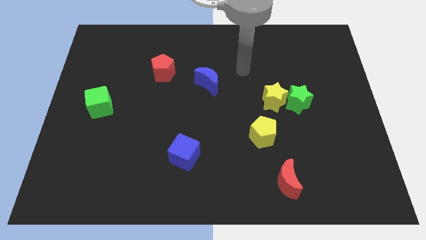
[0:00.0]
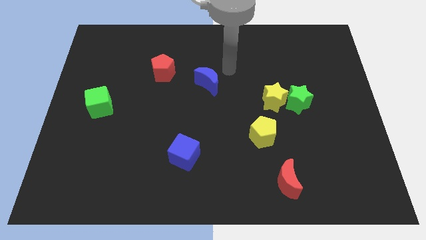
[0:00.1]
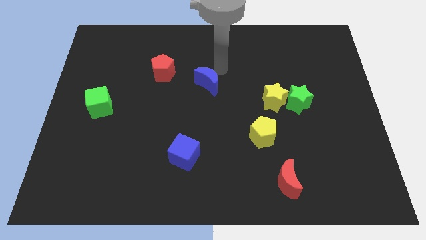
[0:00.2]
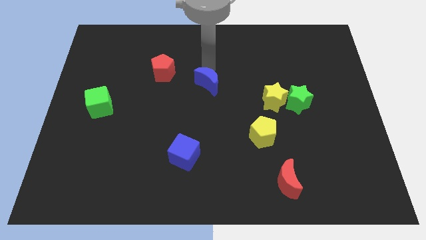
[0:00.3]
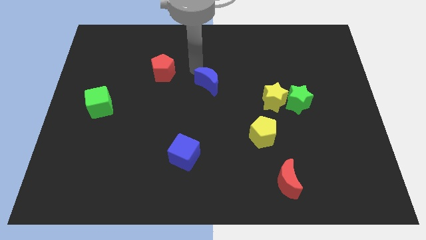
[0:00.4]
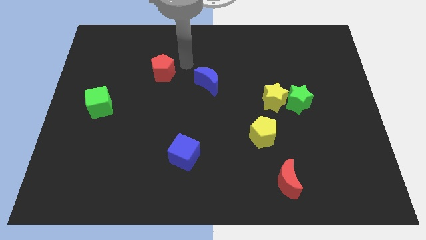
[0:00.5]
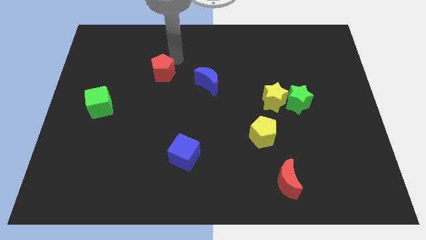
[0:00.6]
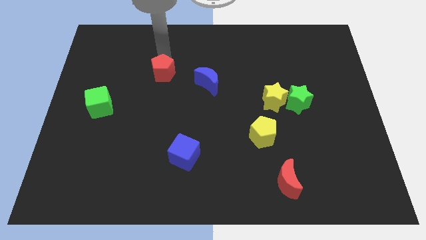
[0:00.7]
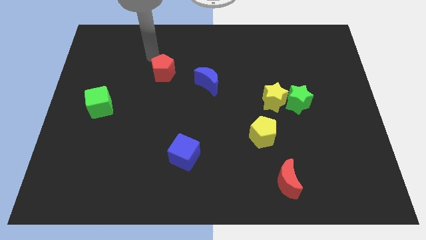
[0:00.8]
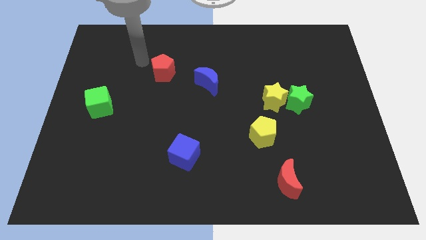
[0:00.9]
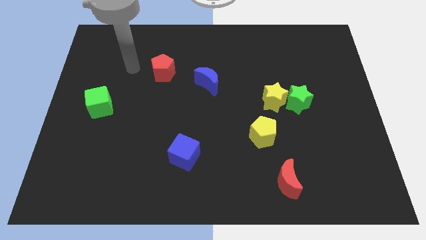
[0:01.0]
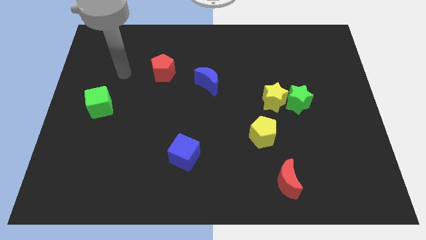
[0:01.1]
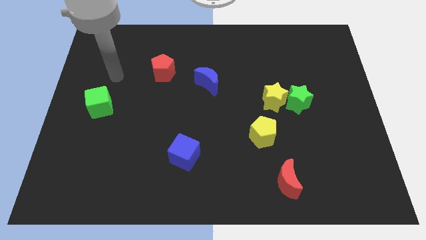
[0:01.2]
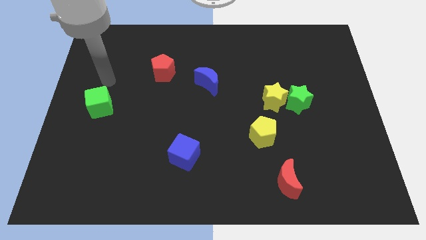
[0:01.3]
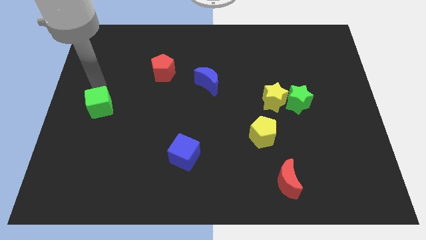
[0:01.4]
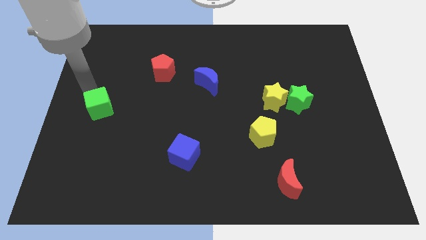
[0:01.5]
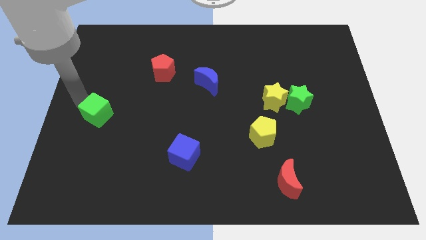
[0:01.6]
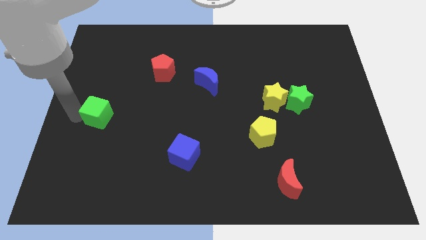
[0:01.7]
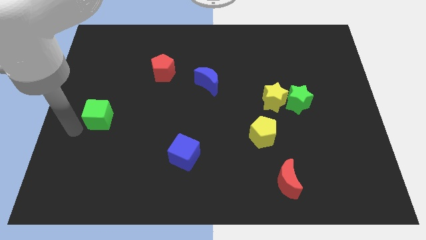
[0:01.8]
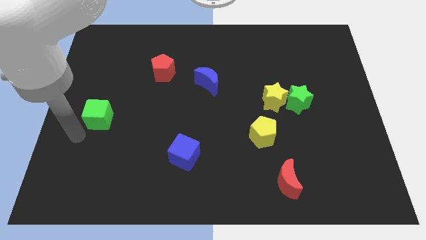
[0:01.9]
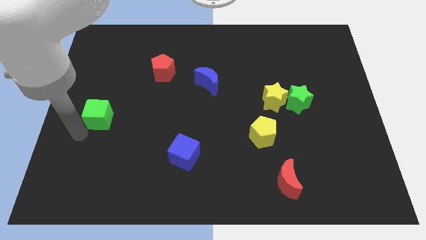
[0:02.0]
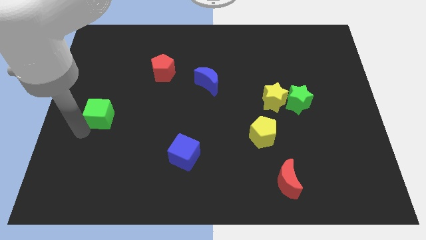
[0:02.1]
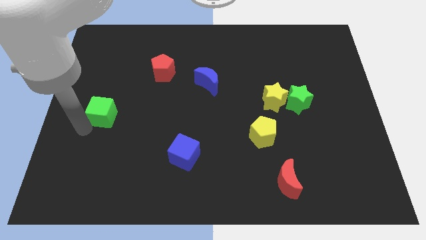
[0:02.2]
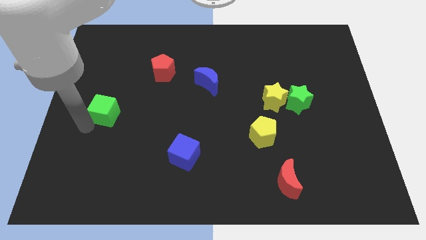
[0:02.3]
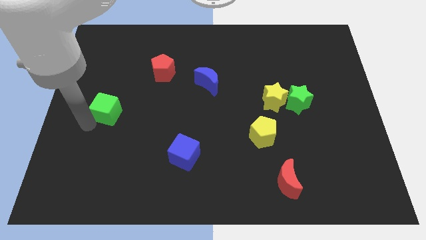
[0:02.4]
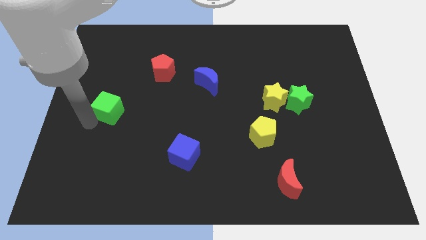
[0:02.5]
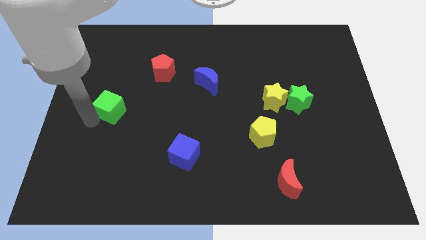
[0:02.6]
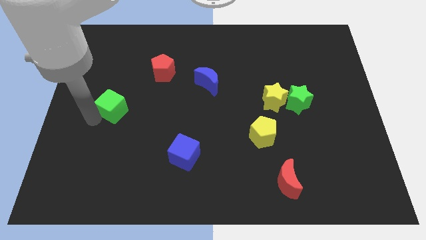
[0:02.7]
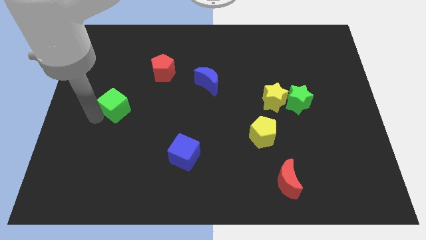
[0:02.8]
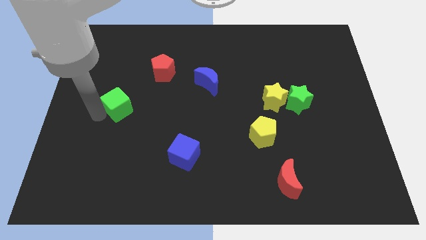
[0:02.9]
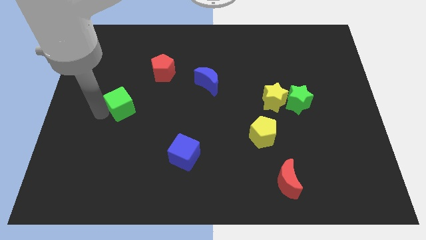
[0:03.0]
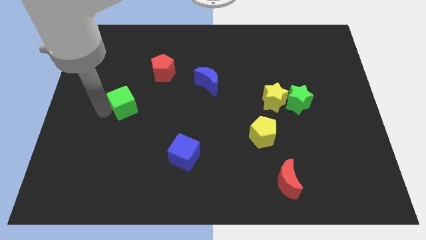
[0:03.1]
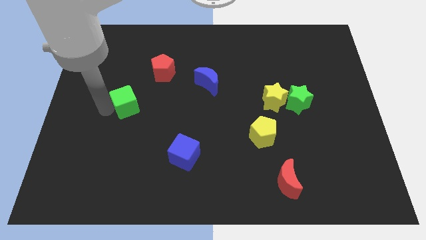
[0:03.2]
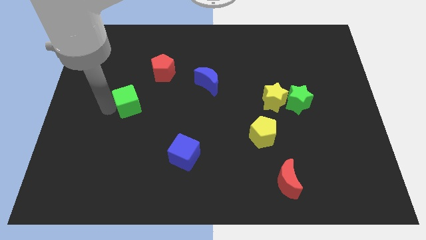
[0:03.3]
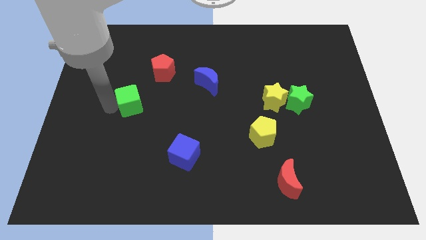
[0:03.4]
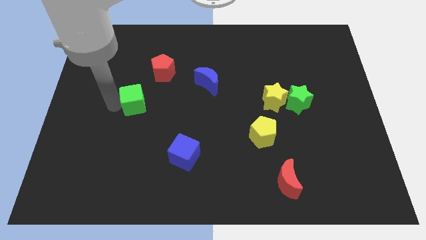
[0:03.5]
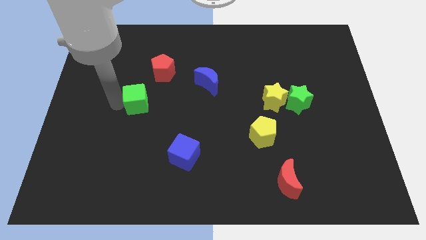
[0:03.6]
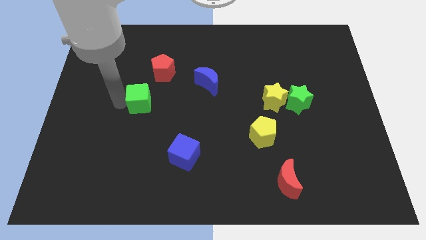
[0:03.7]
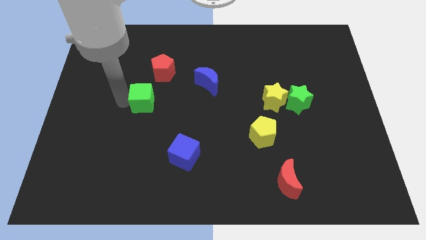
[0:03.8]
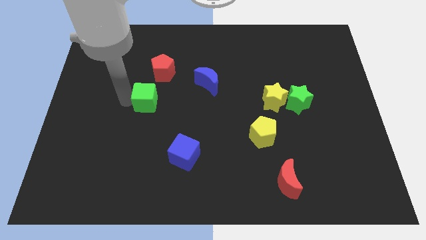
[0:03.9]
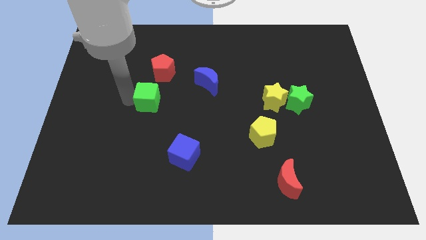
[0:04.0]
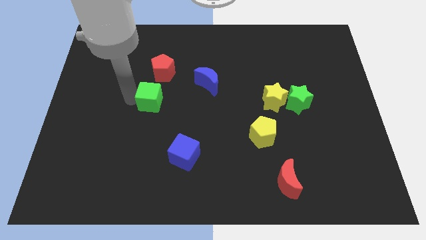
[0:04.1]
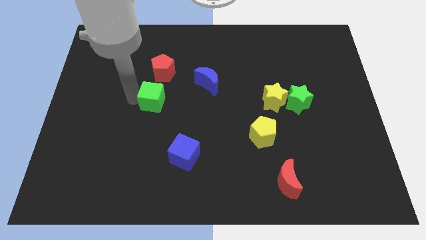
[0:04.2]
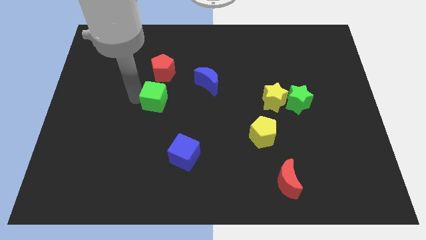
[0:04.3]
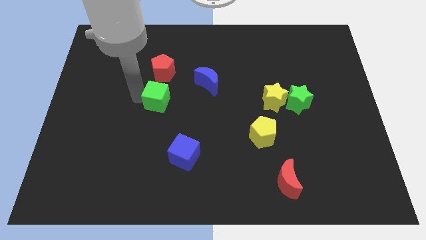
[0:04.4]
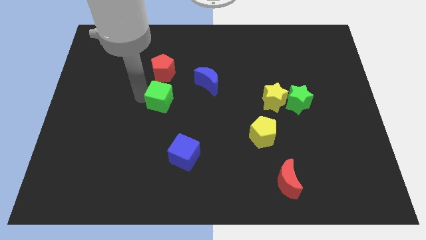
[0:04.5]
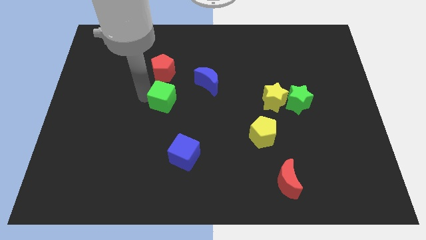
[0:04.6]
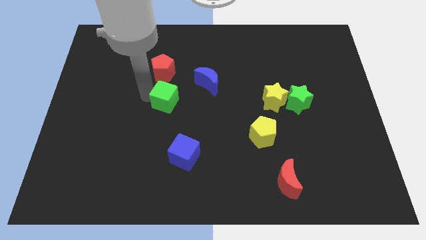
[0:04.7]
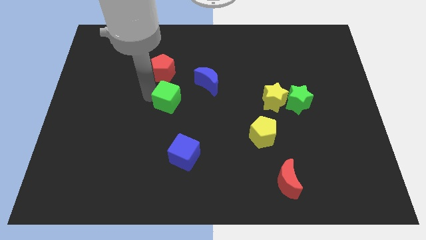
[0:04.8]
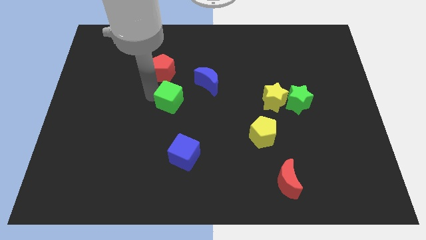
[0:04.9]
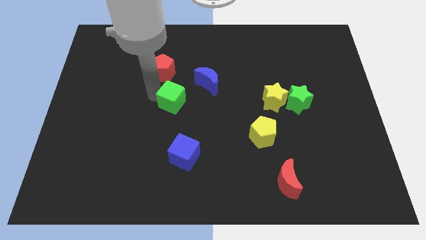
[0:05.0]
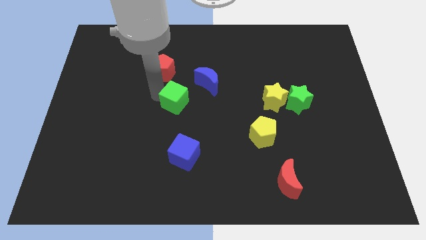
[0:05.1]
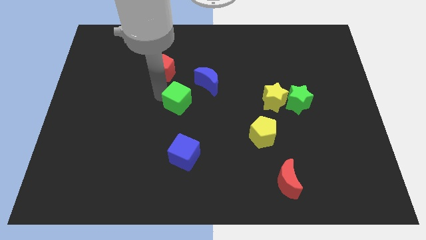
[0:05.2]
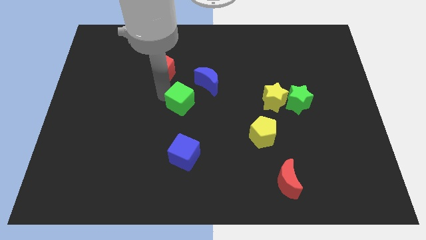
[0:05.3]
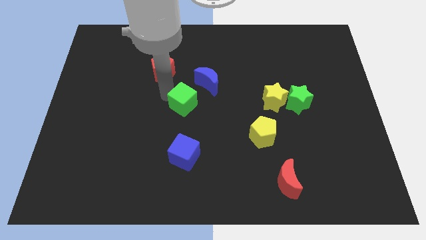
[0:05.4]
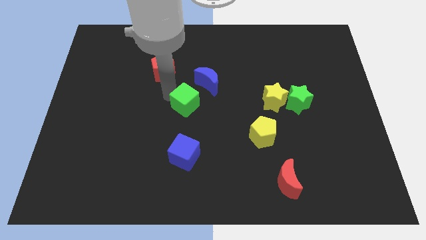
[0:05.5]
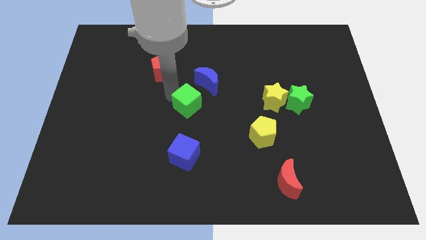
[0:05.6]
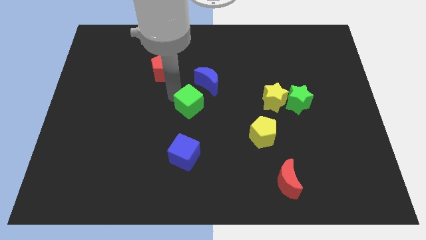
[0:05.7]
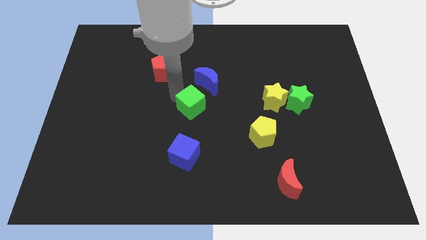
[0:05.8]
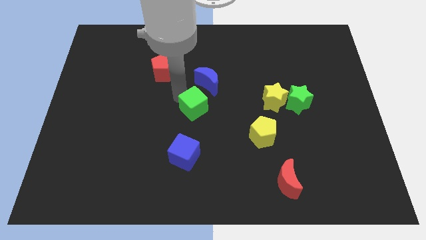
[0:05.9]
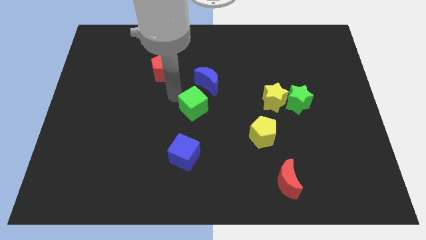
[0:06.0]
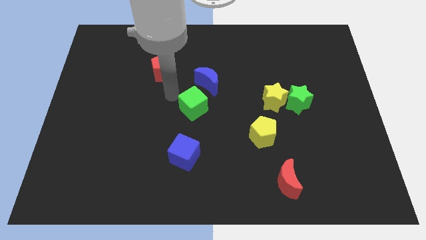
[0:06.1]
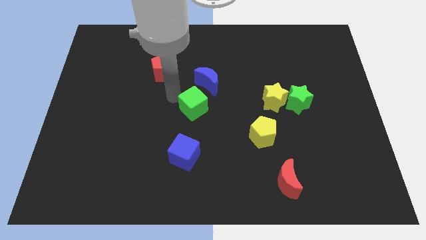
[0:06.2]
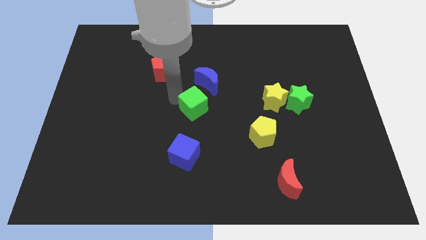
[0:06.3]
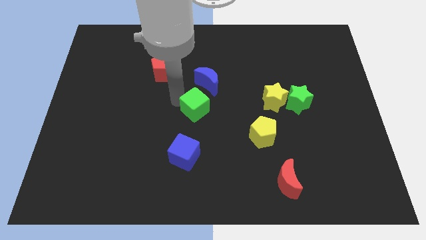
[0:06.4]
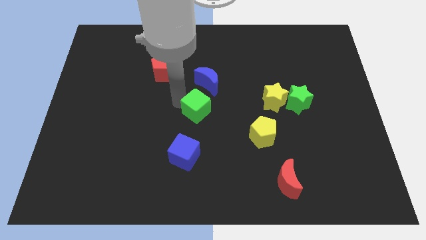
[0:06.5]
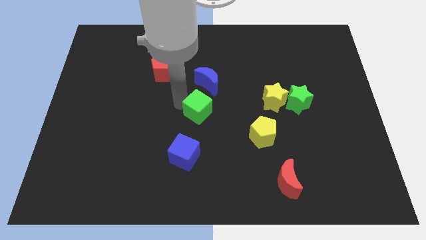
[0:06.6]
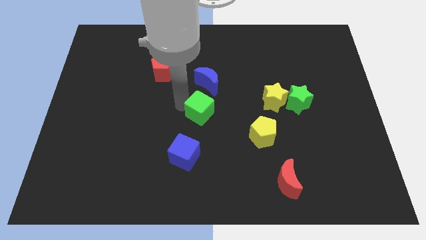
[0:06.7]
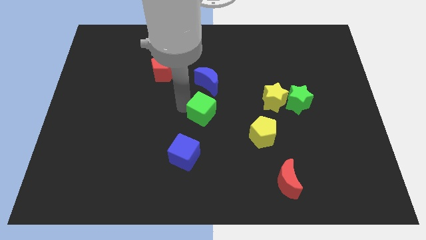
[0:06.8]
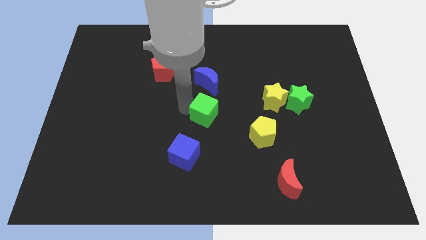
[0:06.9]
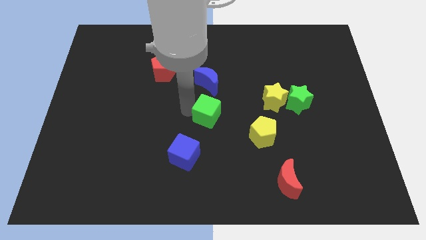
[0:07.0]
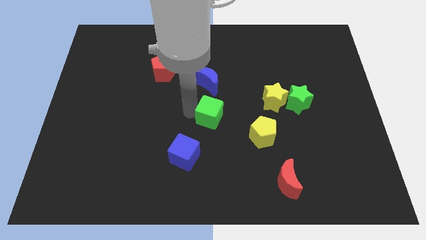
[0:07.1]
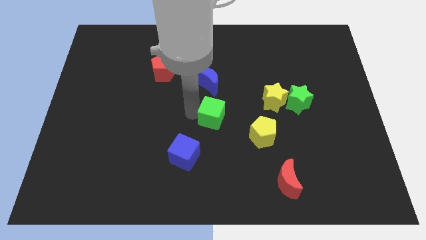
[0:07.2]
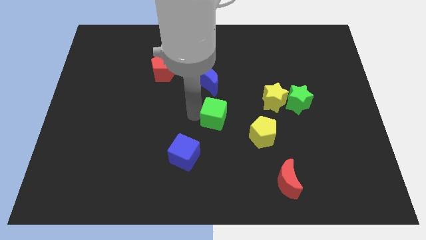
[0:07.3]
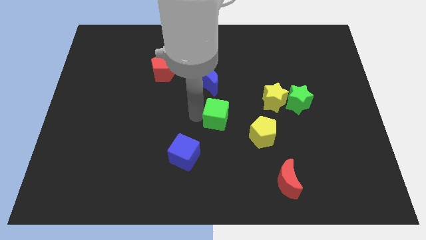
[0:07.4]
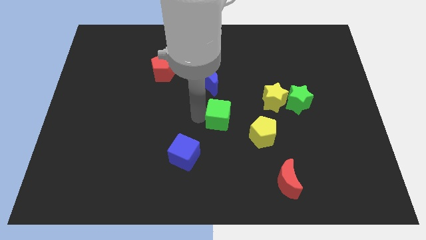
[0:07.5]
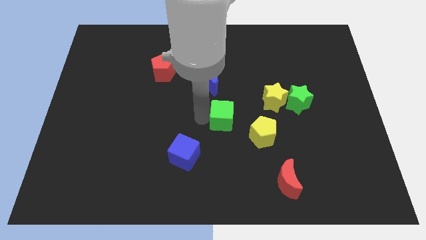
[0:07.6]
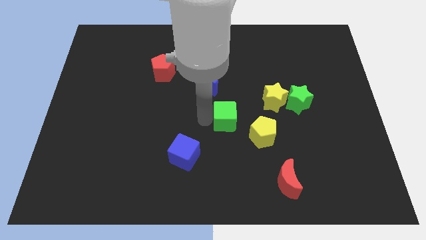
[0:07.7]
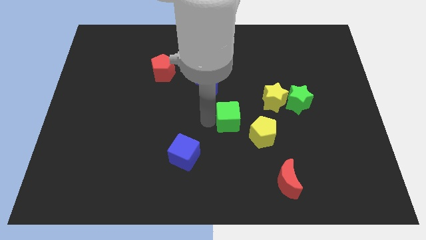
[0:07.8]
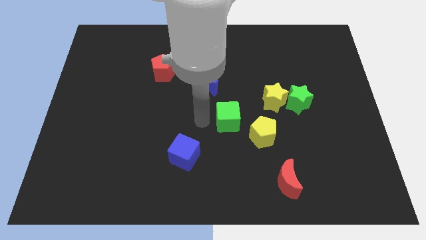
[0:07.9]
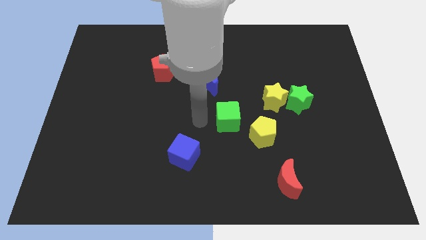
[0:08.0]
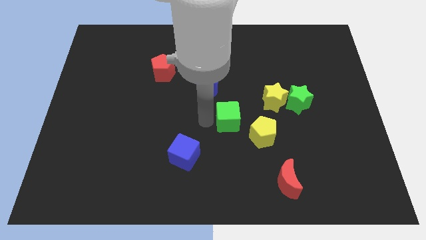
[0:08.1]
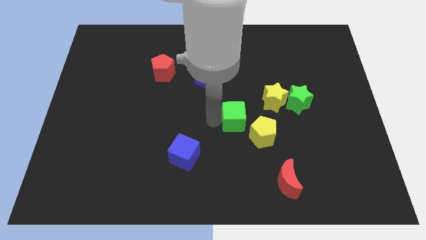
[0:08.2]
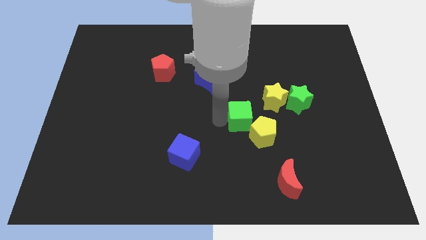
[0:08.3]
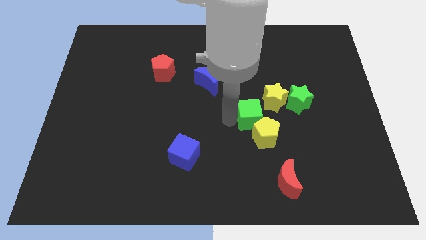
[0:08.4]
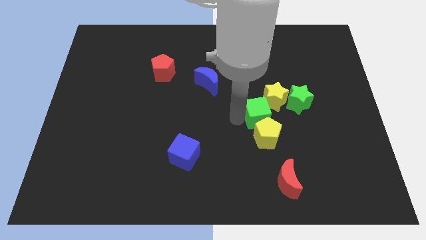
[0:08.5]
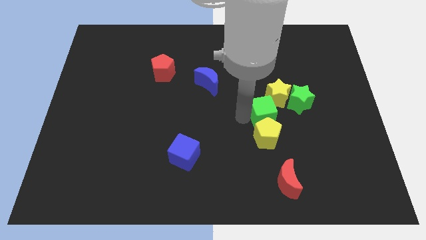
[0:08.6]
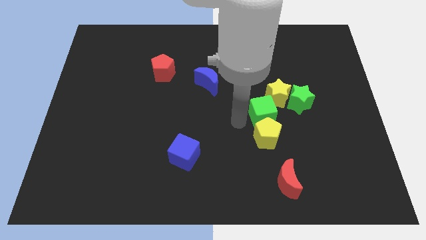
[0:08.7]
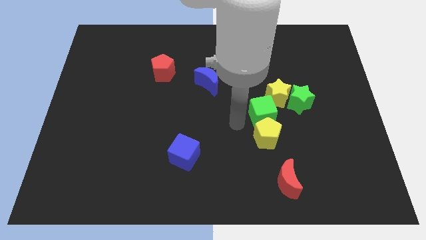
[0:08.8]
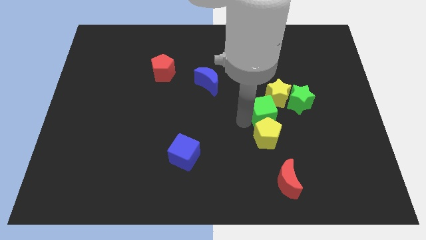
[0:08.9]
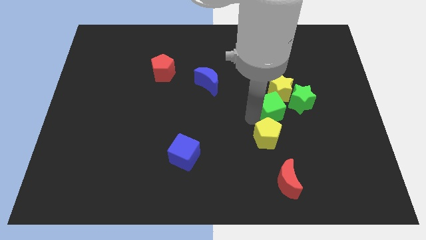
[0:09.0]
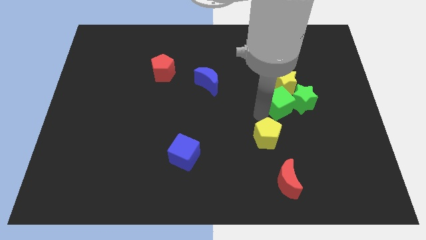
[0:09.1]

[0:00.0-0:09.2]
push the green cube next to the green star
